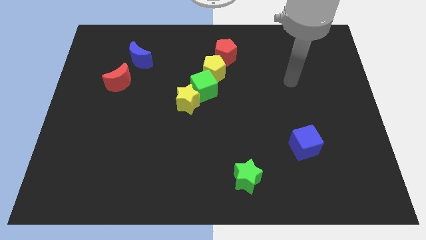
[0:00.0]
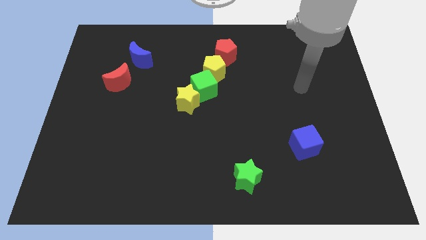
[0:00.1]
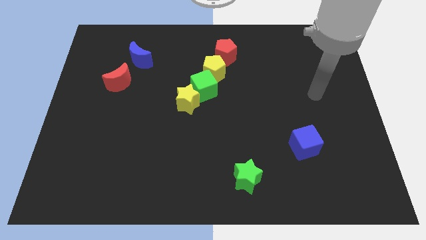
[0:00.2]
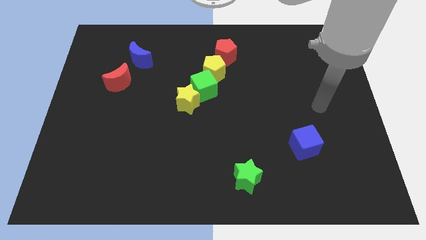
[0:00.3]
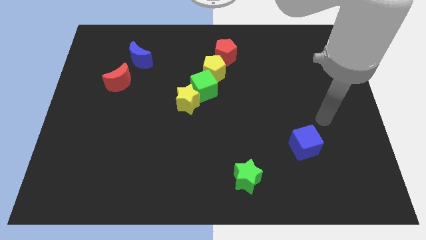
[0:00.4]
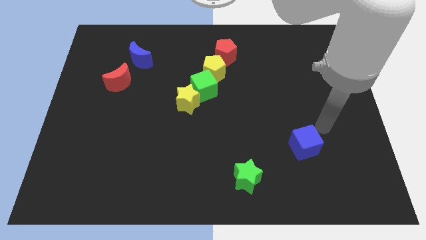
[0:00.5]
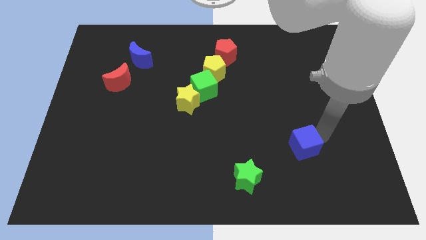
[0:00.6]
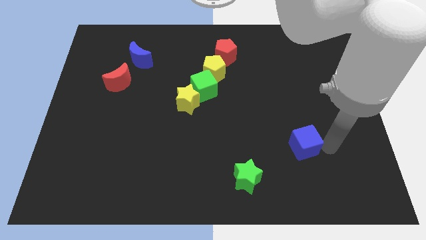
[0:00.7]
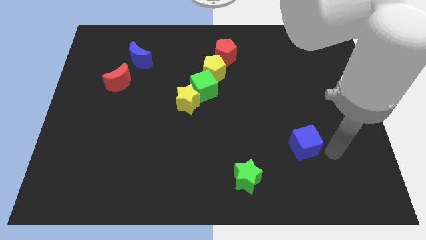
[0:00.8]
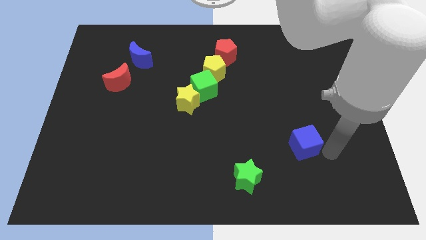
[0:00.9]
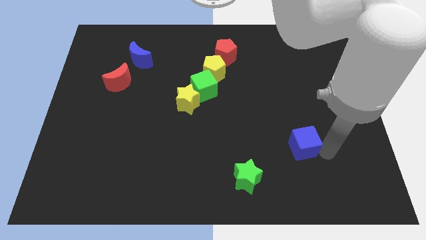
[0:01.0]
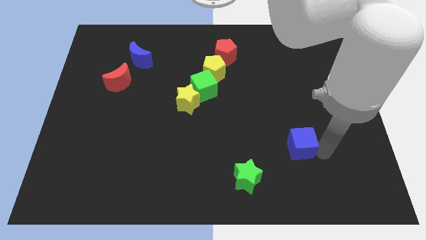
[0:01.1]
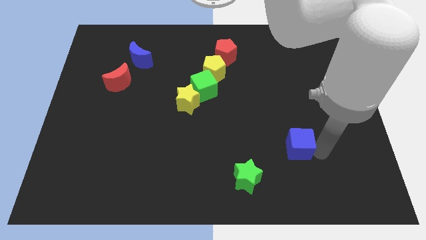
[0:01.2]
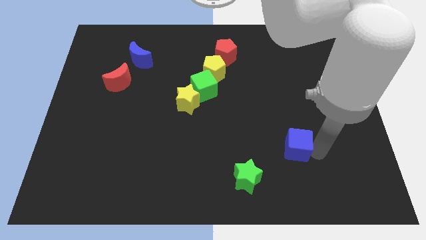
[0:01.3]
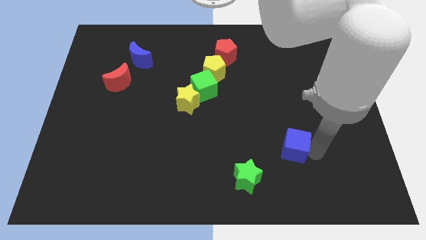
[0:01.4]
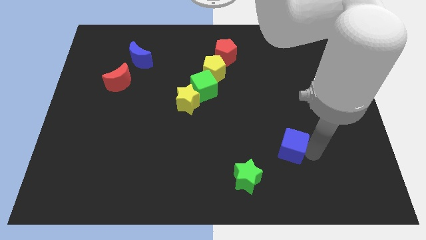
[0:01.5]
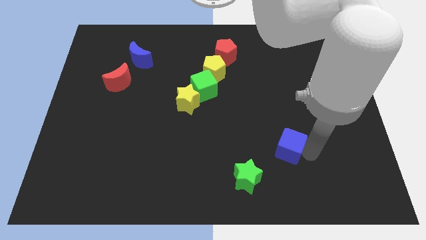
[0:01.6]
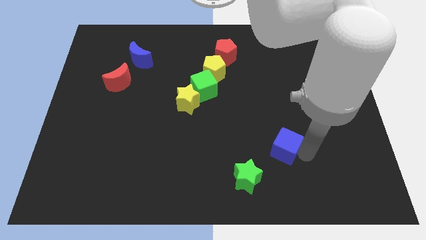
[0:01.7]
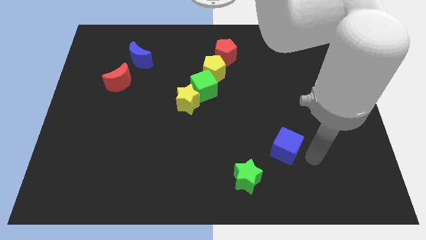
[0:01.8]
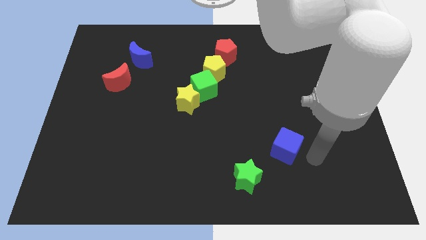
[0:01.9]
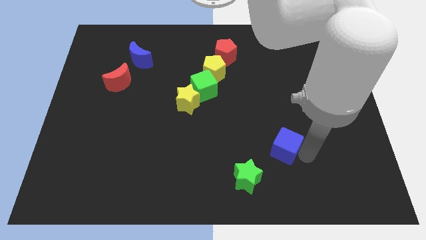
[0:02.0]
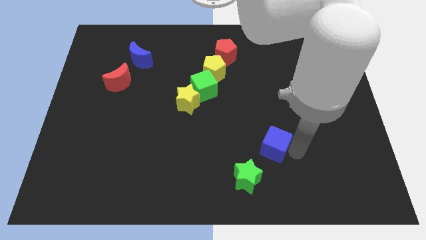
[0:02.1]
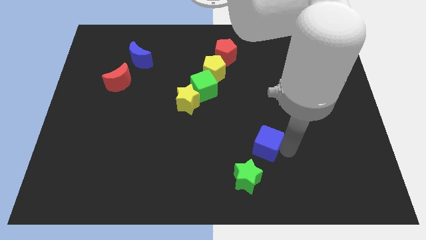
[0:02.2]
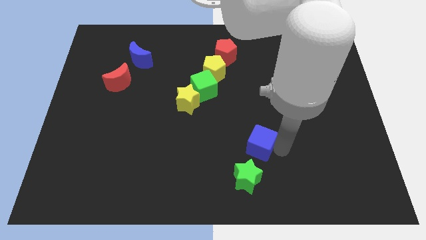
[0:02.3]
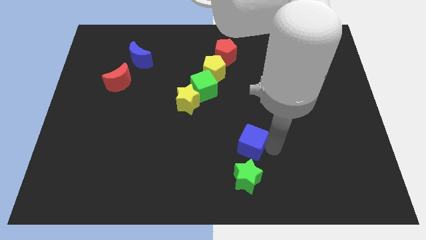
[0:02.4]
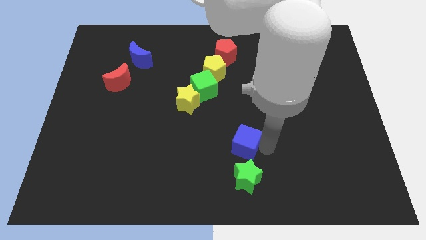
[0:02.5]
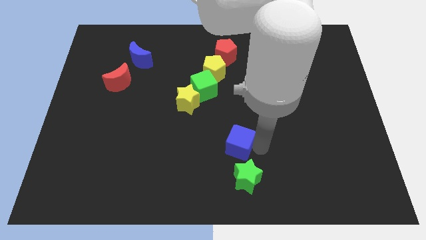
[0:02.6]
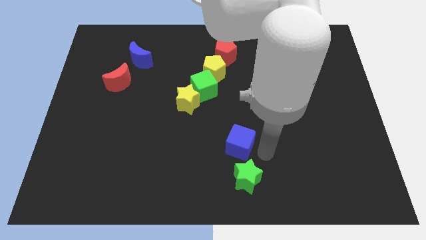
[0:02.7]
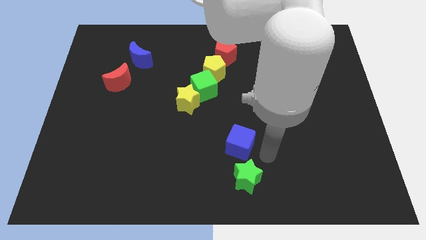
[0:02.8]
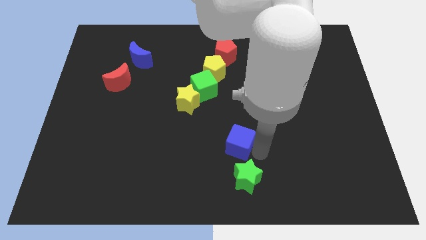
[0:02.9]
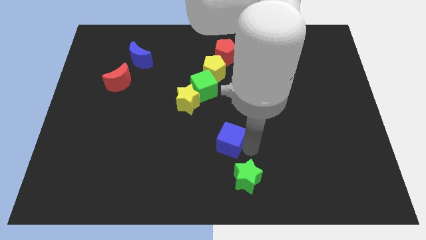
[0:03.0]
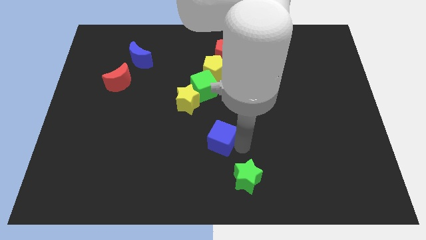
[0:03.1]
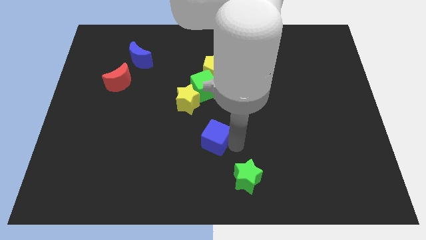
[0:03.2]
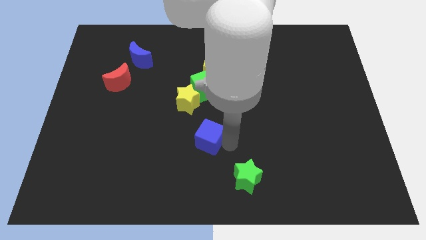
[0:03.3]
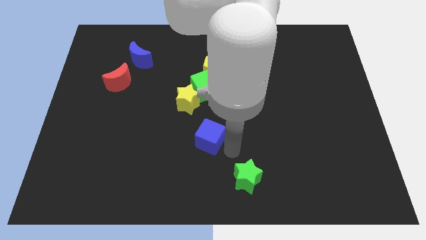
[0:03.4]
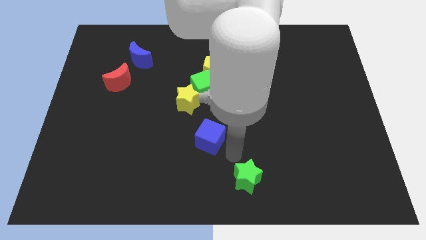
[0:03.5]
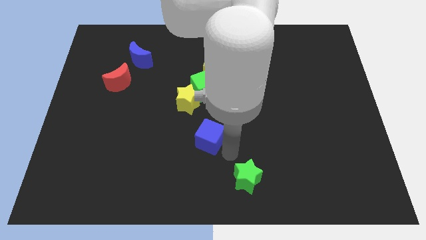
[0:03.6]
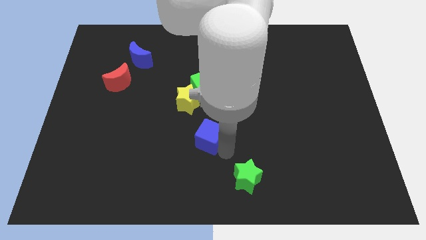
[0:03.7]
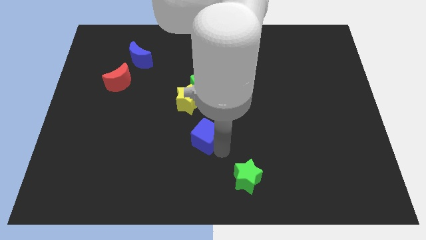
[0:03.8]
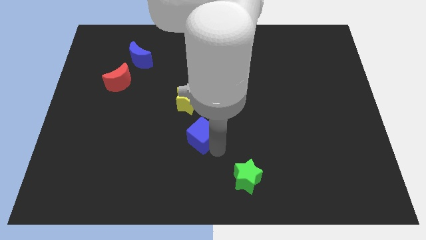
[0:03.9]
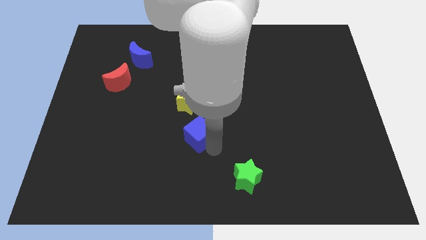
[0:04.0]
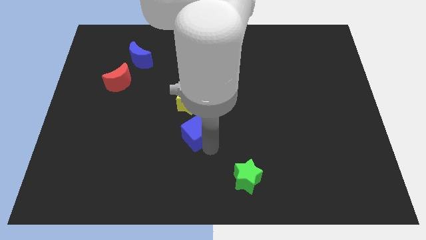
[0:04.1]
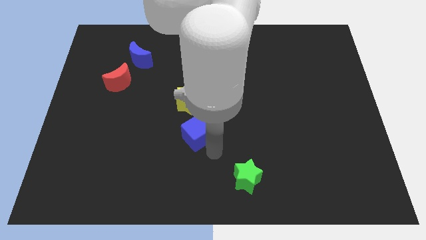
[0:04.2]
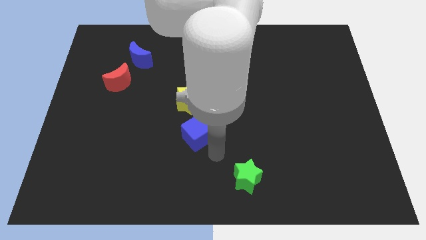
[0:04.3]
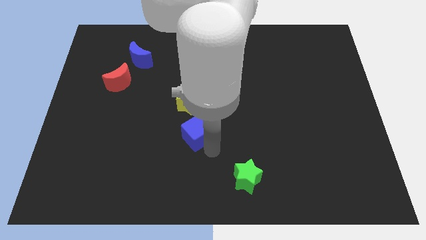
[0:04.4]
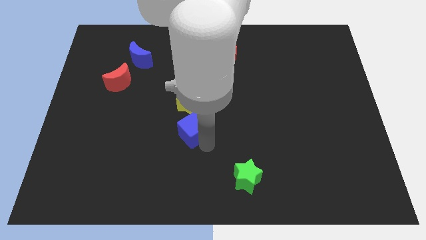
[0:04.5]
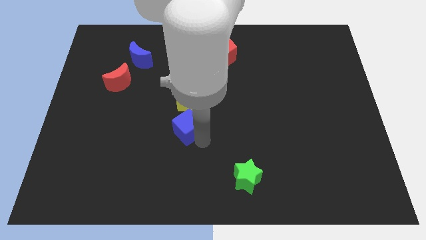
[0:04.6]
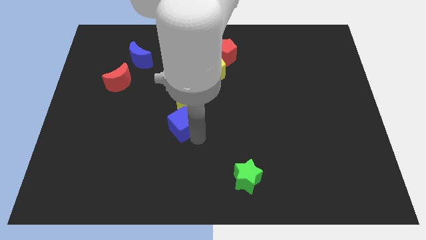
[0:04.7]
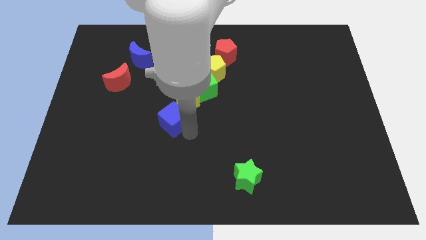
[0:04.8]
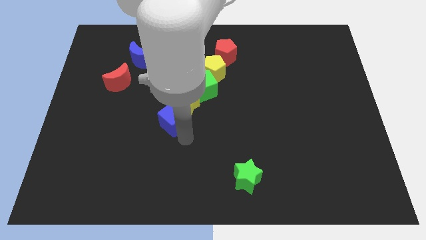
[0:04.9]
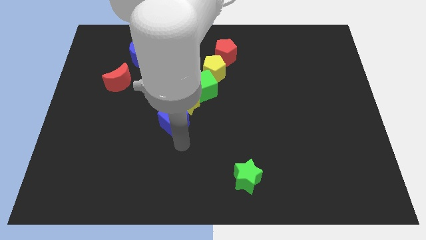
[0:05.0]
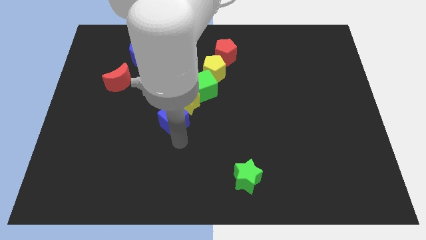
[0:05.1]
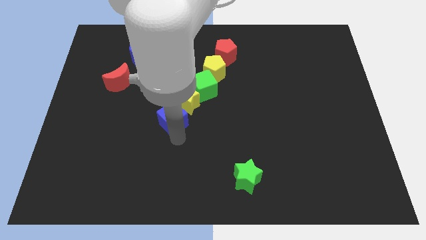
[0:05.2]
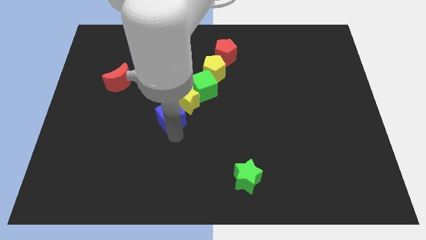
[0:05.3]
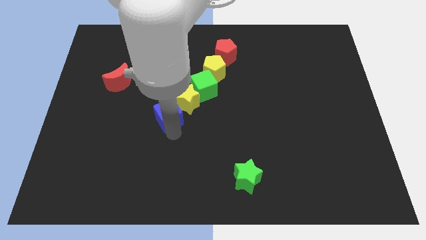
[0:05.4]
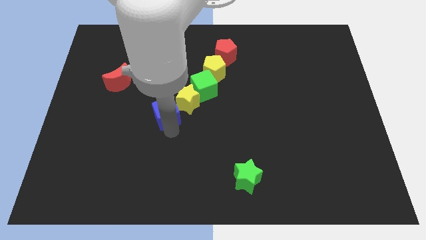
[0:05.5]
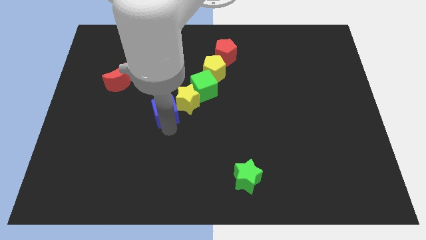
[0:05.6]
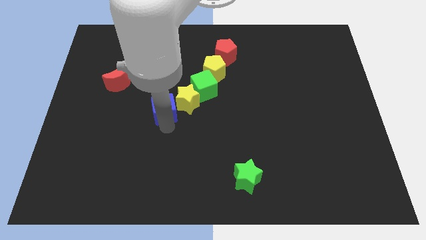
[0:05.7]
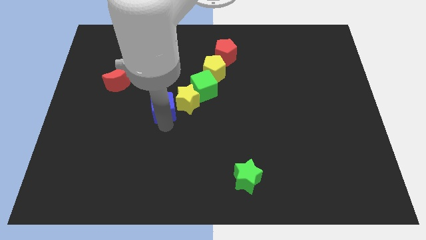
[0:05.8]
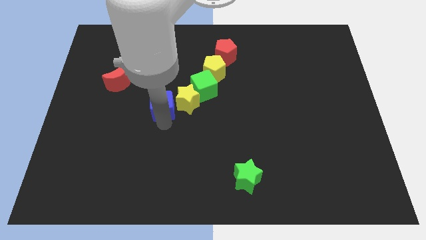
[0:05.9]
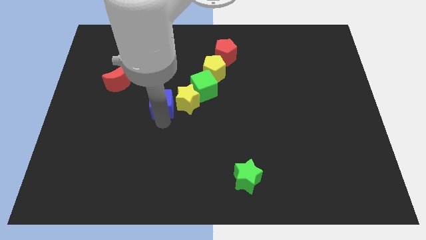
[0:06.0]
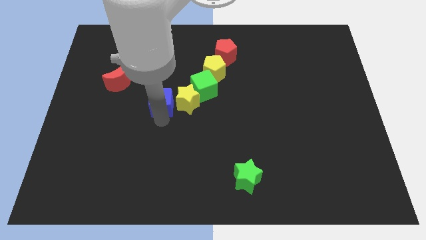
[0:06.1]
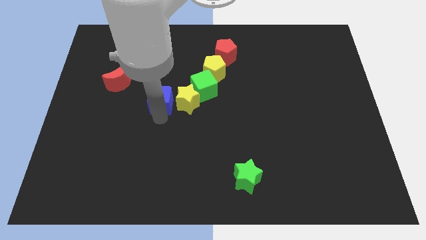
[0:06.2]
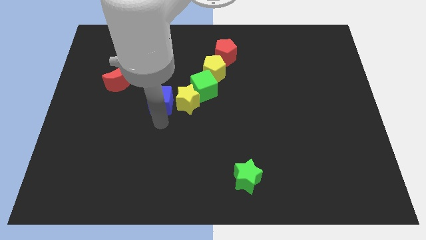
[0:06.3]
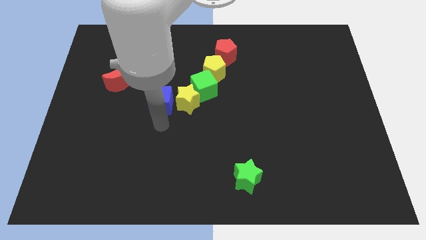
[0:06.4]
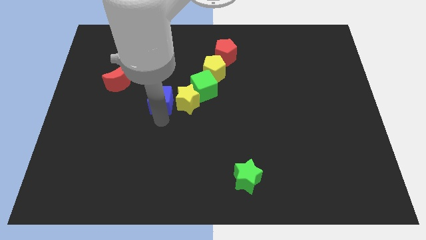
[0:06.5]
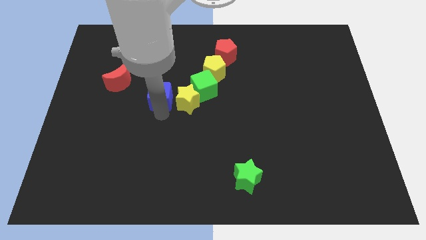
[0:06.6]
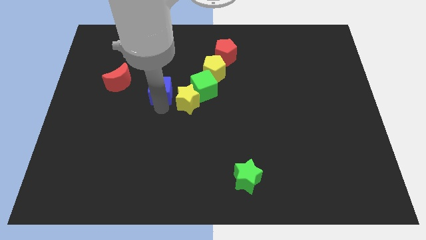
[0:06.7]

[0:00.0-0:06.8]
slide the blue cube to the right of the red moon

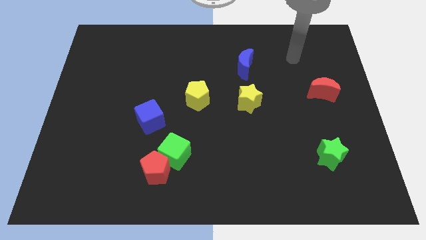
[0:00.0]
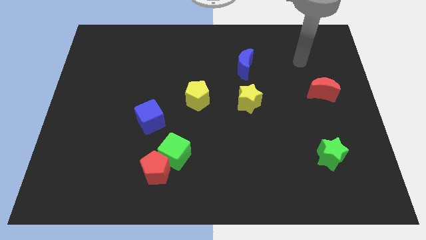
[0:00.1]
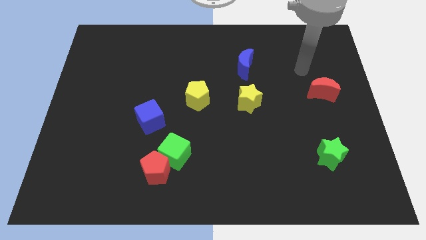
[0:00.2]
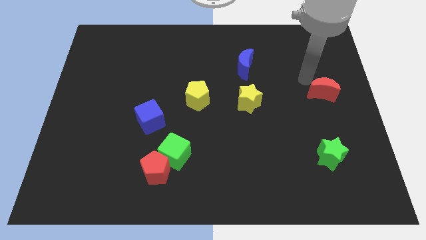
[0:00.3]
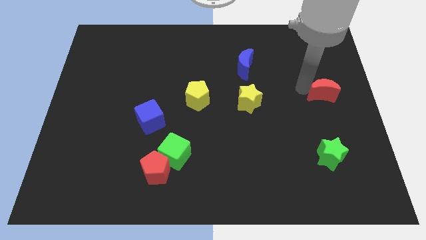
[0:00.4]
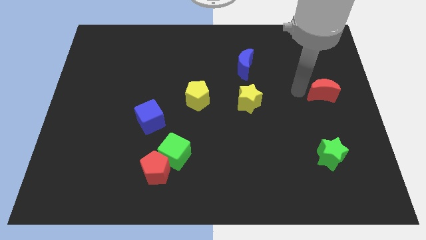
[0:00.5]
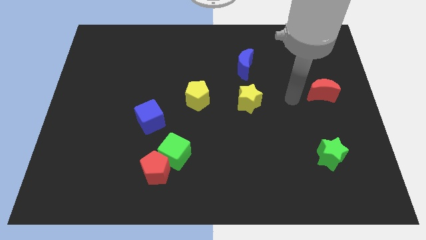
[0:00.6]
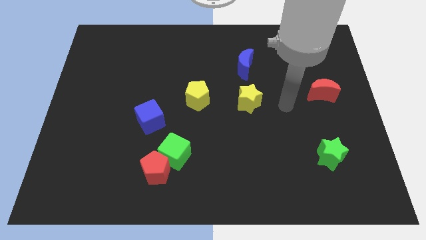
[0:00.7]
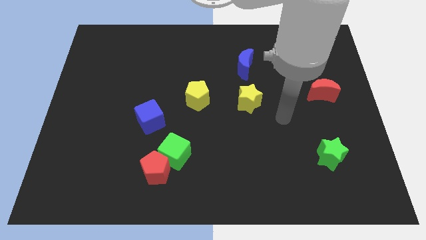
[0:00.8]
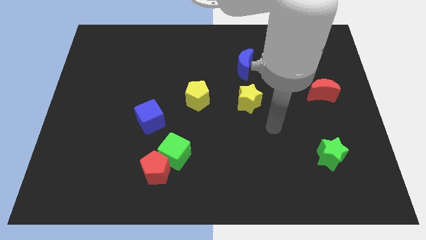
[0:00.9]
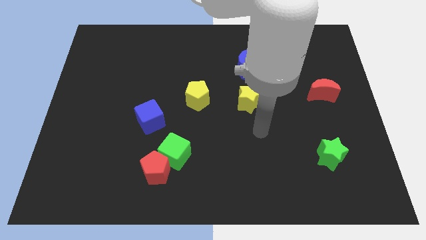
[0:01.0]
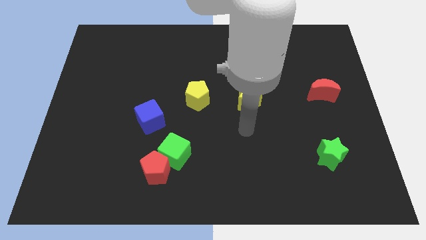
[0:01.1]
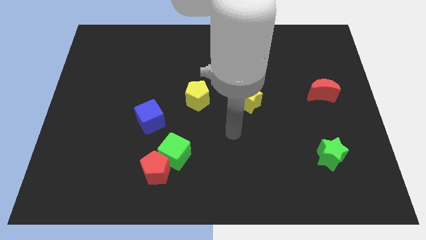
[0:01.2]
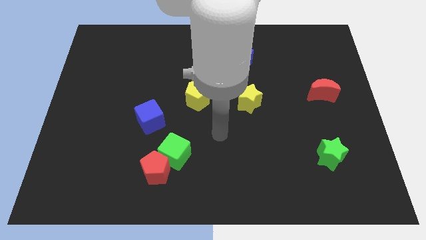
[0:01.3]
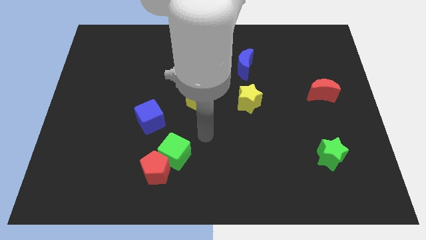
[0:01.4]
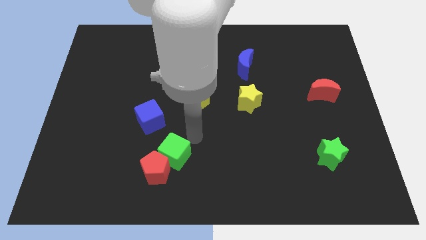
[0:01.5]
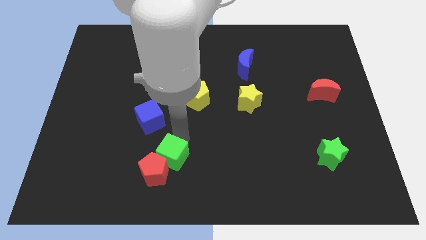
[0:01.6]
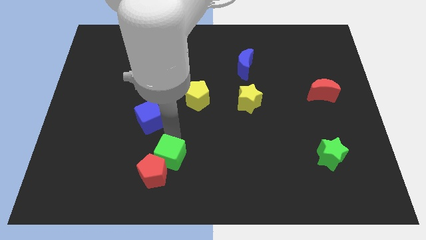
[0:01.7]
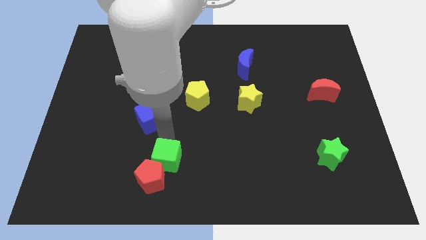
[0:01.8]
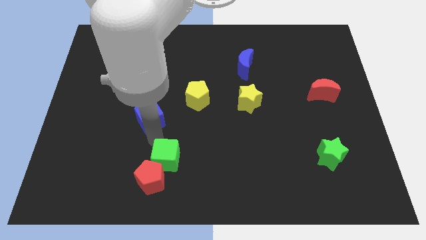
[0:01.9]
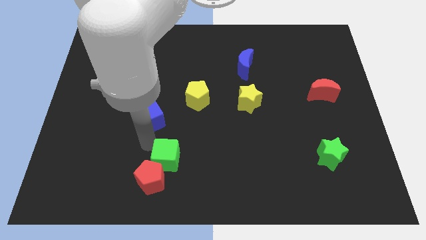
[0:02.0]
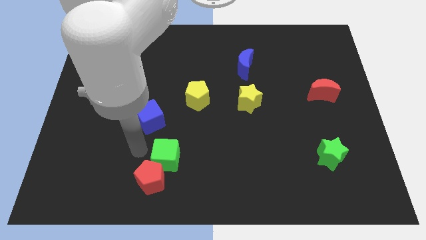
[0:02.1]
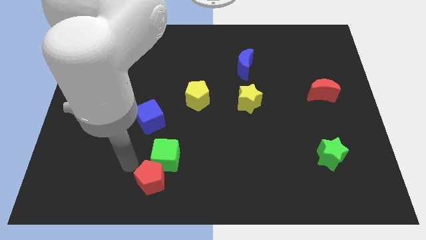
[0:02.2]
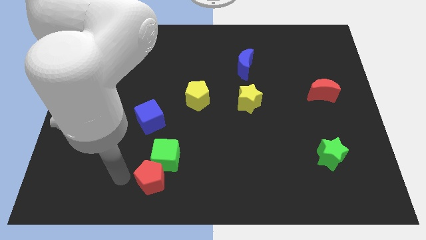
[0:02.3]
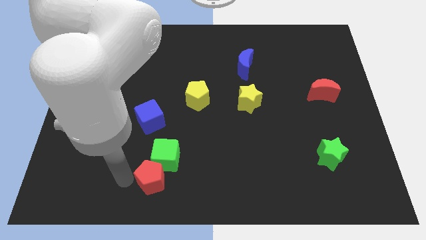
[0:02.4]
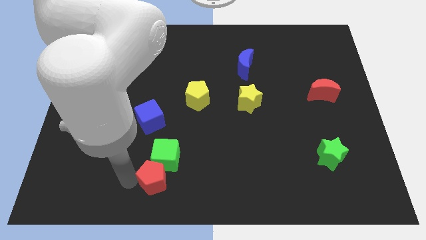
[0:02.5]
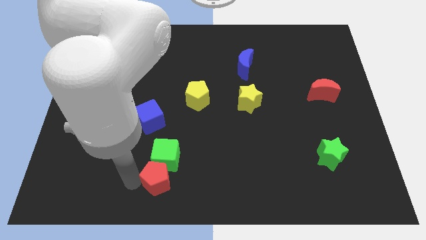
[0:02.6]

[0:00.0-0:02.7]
move the red pentagon to the bottom right of the green cube
